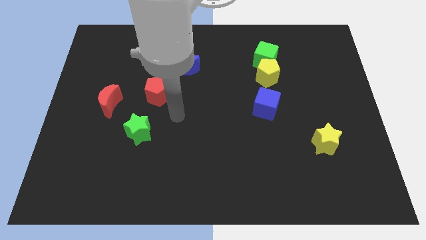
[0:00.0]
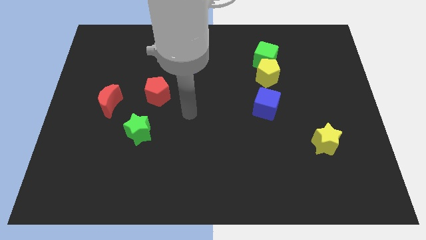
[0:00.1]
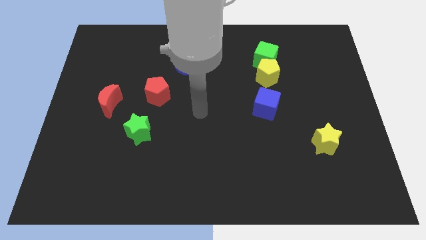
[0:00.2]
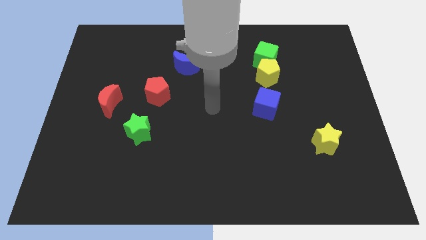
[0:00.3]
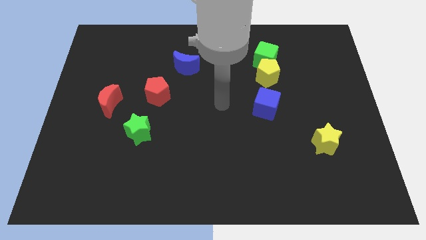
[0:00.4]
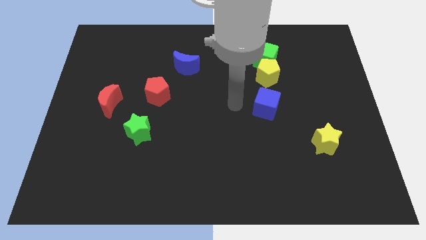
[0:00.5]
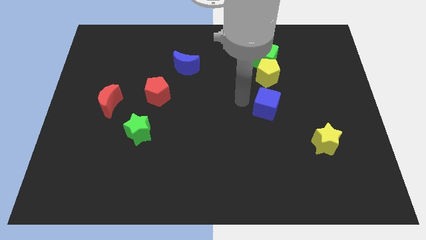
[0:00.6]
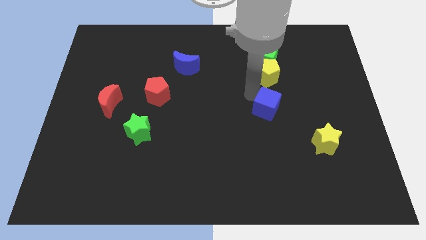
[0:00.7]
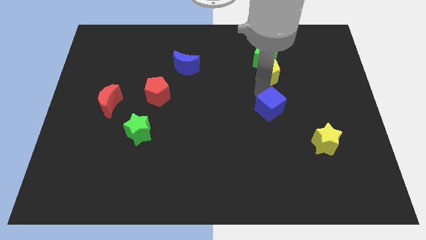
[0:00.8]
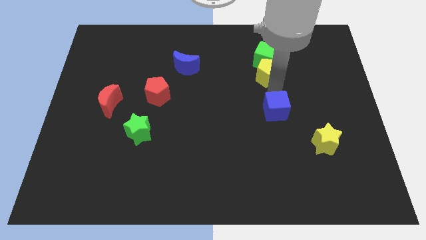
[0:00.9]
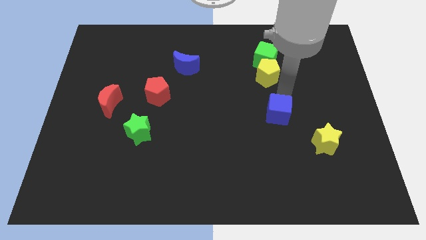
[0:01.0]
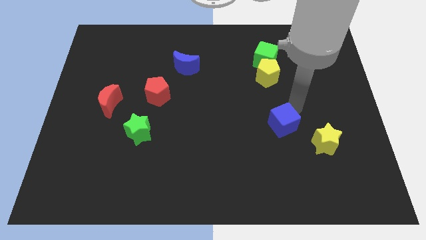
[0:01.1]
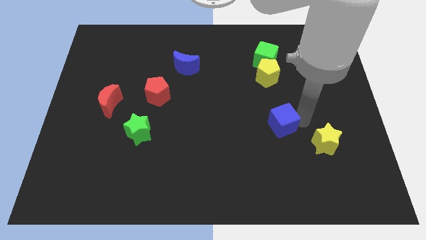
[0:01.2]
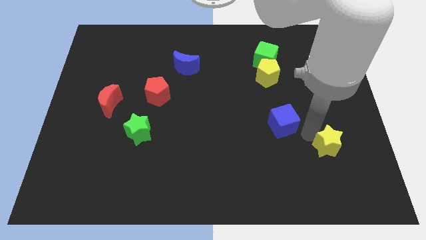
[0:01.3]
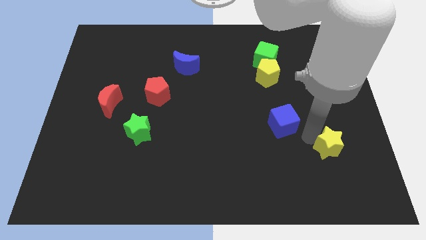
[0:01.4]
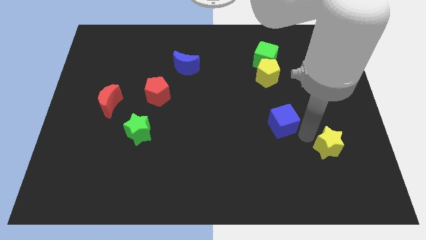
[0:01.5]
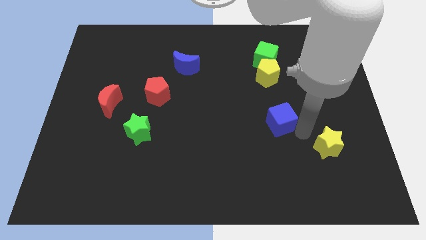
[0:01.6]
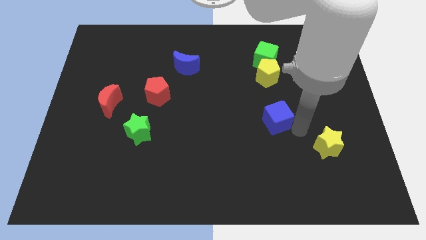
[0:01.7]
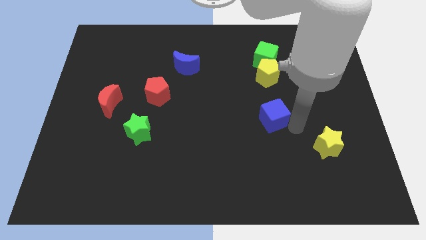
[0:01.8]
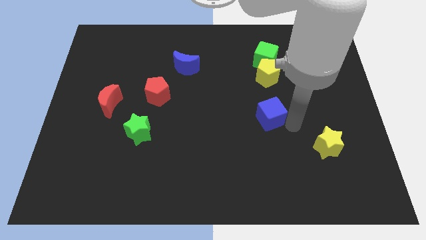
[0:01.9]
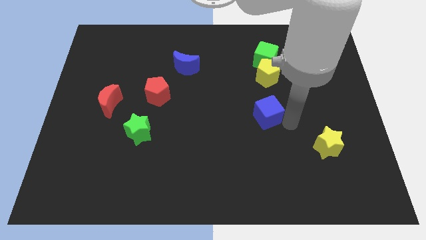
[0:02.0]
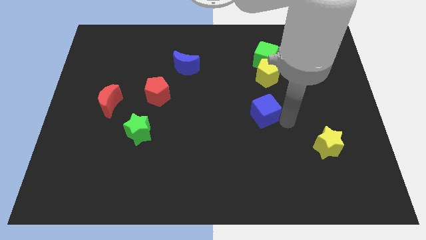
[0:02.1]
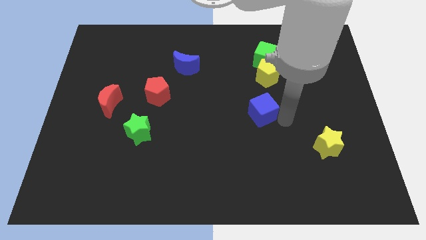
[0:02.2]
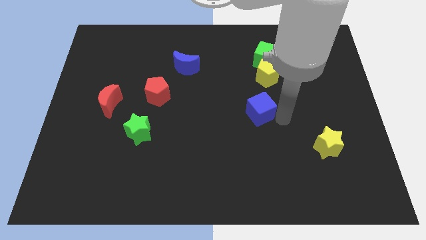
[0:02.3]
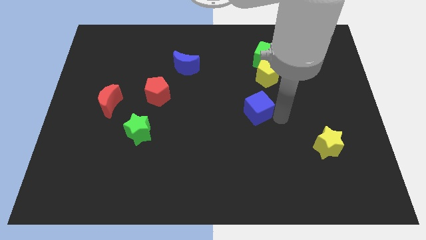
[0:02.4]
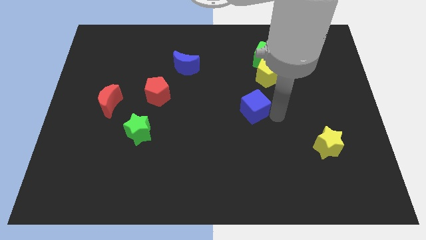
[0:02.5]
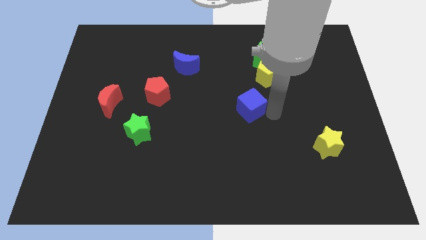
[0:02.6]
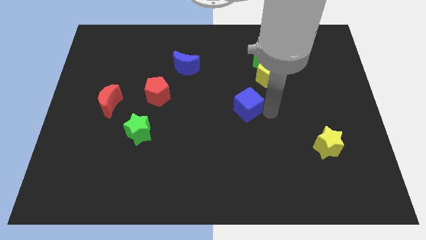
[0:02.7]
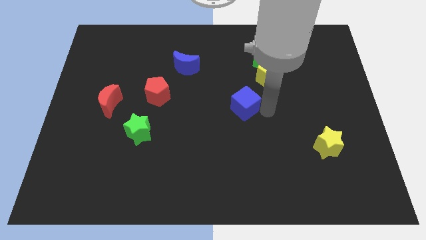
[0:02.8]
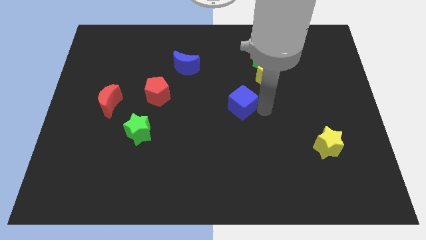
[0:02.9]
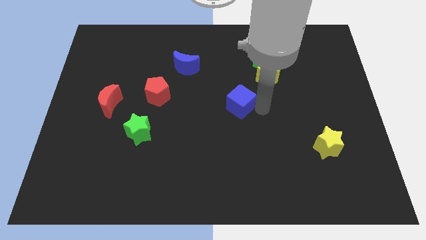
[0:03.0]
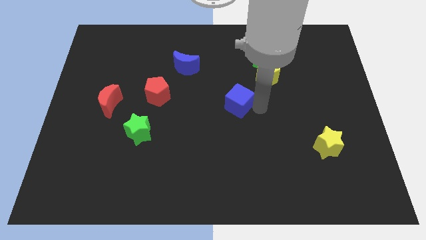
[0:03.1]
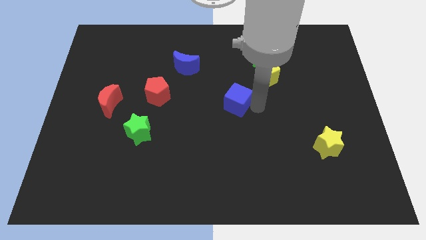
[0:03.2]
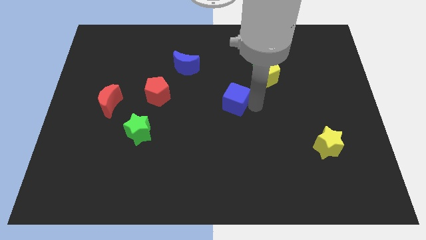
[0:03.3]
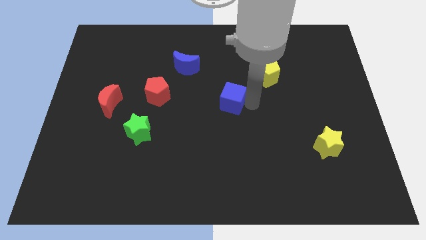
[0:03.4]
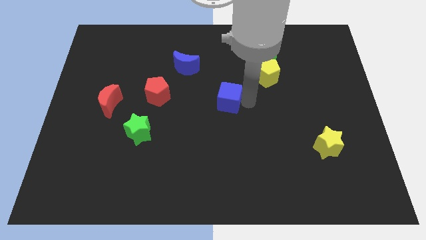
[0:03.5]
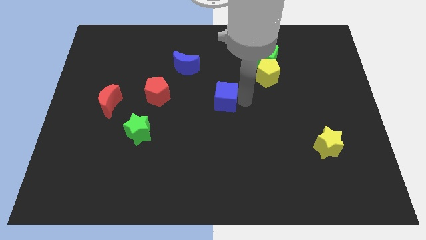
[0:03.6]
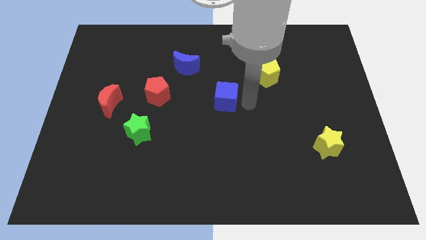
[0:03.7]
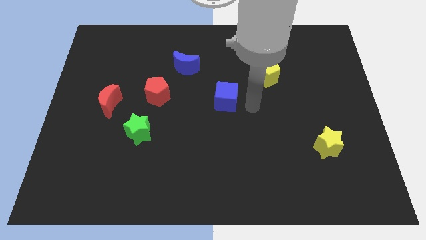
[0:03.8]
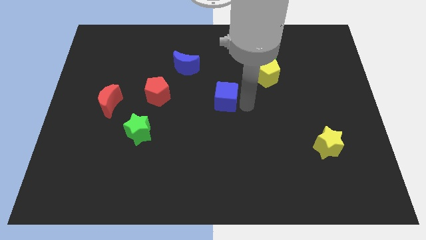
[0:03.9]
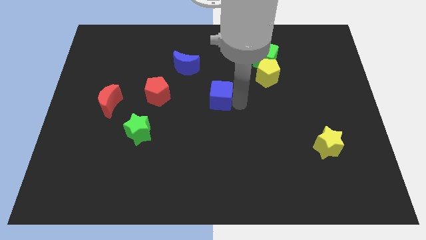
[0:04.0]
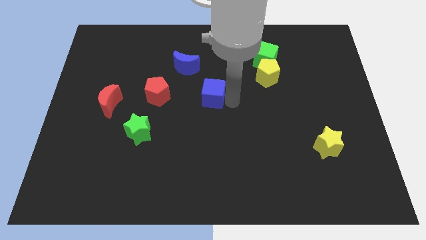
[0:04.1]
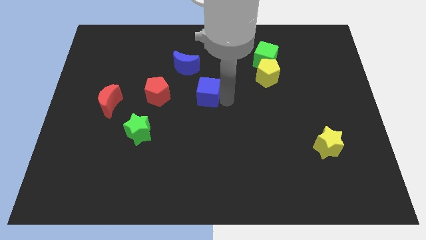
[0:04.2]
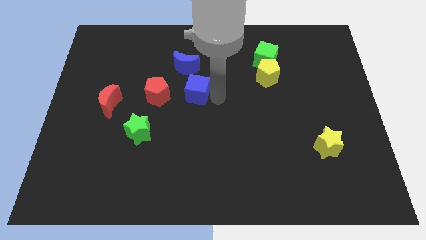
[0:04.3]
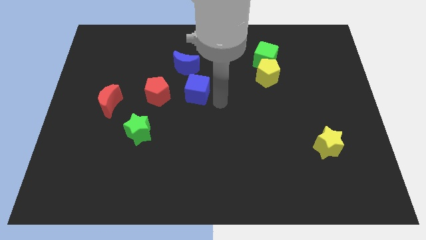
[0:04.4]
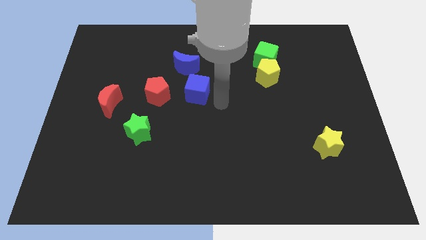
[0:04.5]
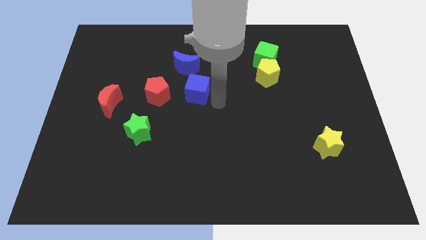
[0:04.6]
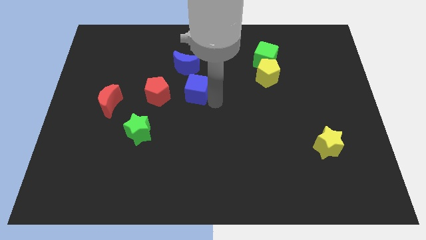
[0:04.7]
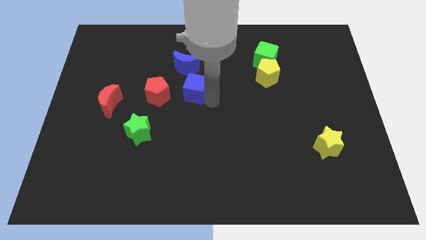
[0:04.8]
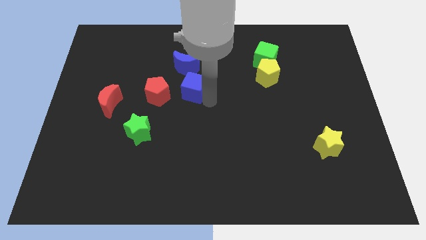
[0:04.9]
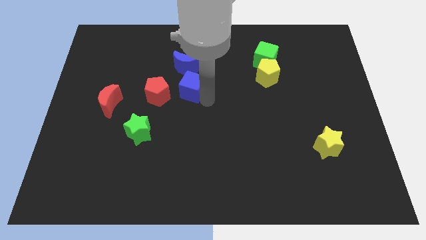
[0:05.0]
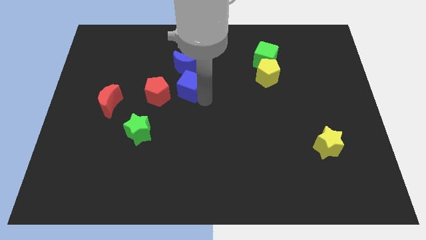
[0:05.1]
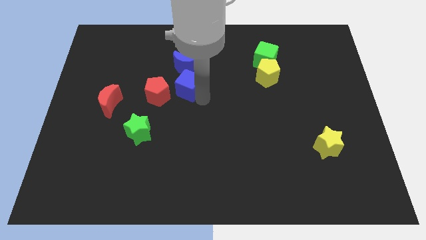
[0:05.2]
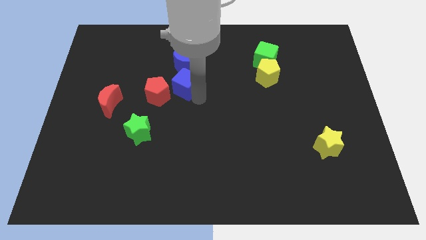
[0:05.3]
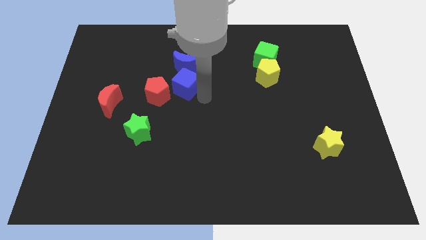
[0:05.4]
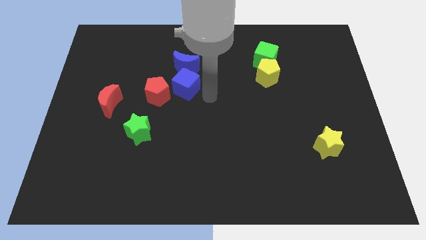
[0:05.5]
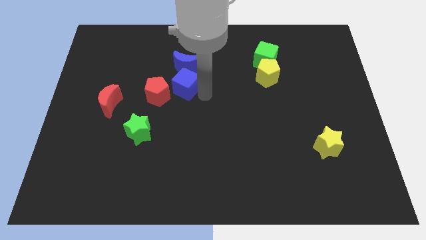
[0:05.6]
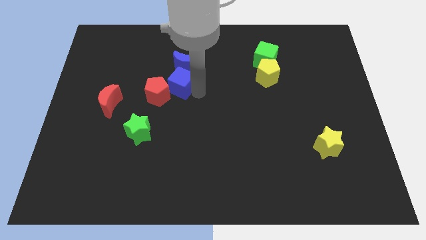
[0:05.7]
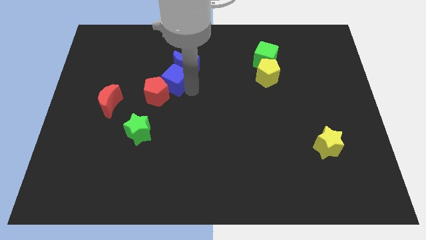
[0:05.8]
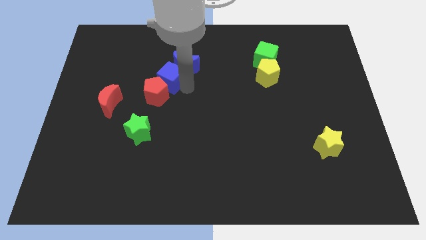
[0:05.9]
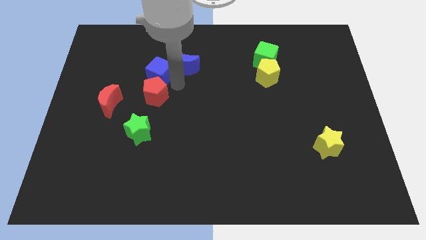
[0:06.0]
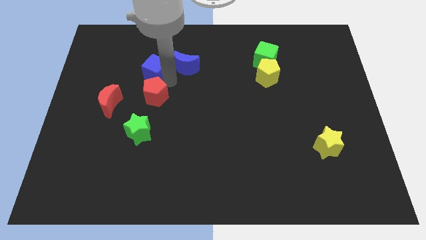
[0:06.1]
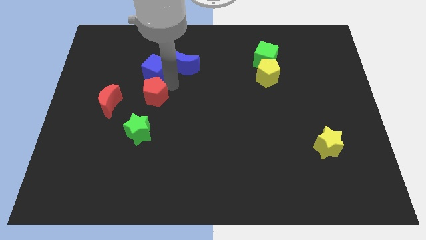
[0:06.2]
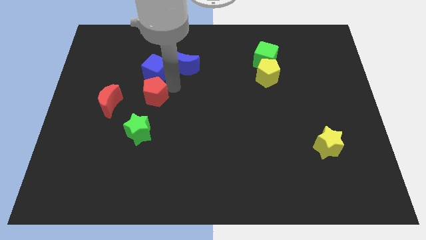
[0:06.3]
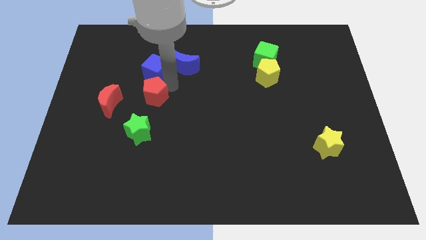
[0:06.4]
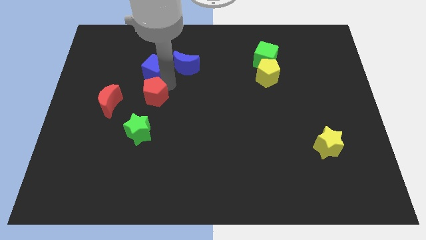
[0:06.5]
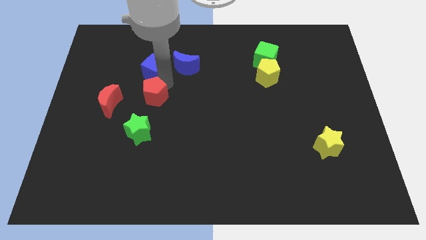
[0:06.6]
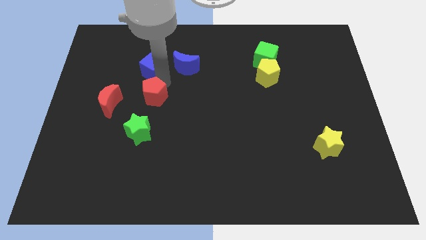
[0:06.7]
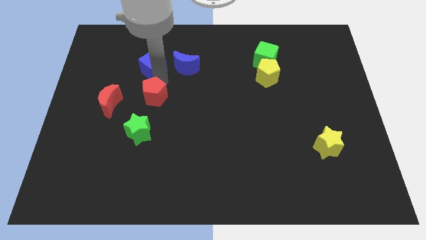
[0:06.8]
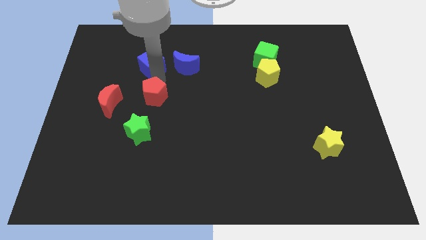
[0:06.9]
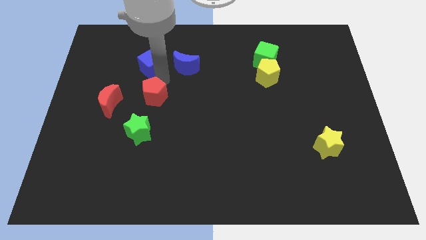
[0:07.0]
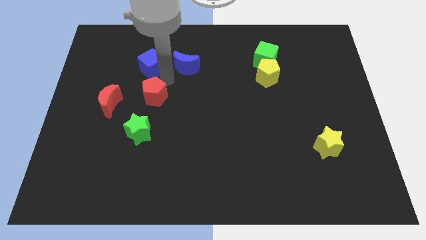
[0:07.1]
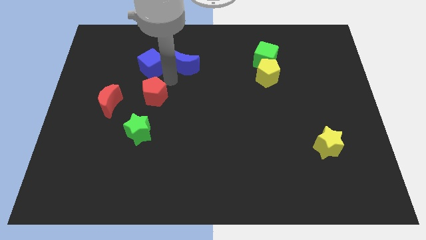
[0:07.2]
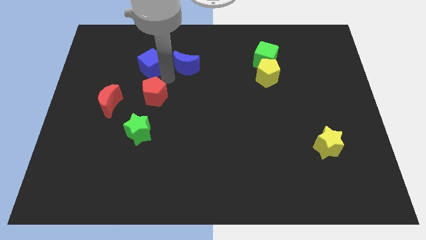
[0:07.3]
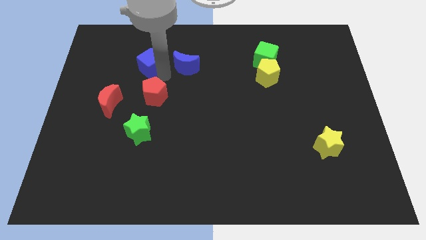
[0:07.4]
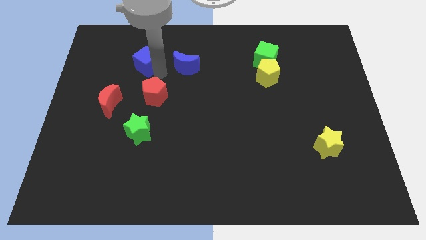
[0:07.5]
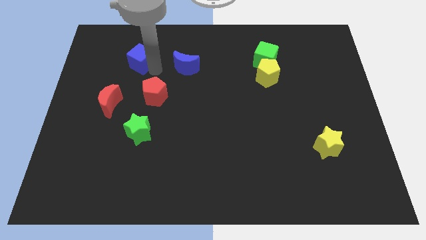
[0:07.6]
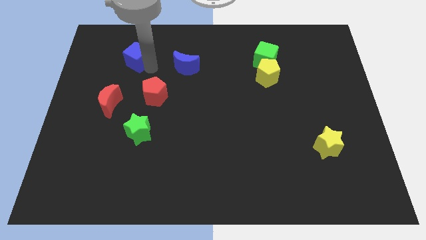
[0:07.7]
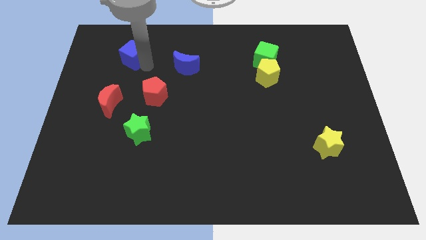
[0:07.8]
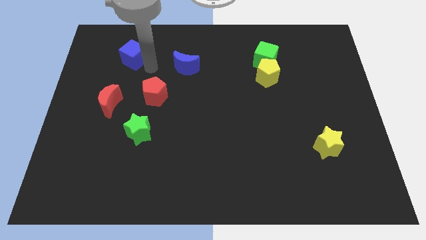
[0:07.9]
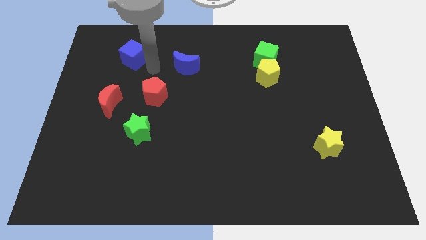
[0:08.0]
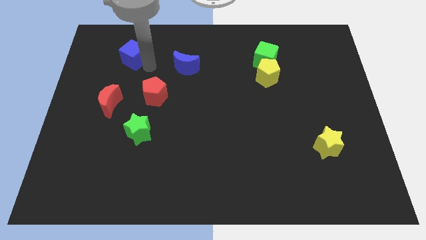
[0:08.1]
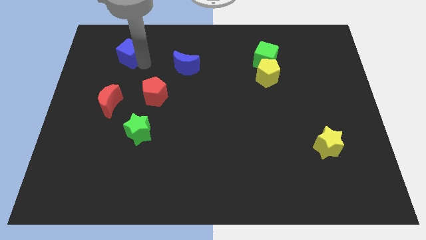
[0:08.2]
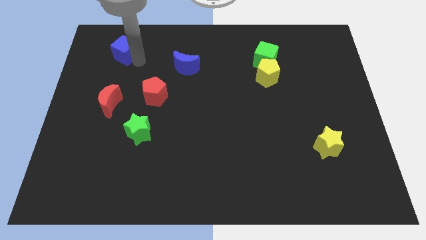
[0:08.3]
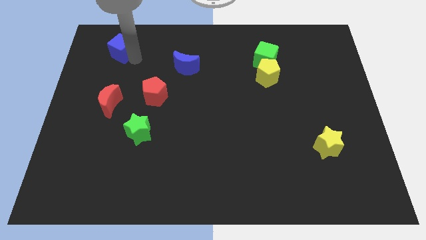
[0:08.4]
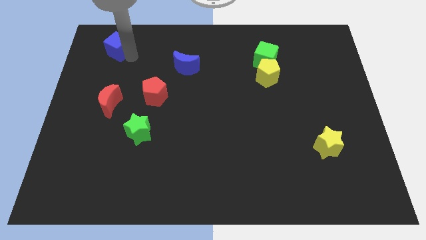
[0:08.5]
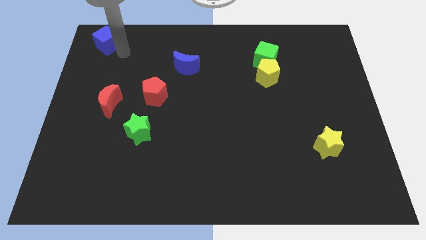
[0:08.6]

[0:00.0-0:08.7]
move the blue cube to the upper left corner
